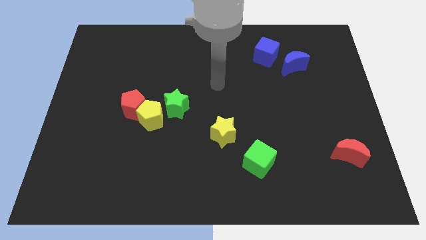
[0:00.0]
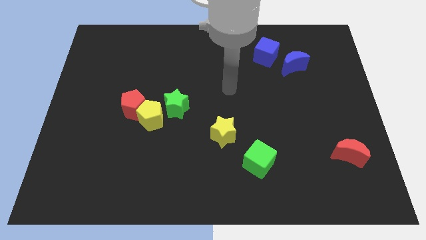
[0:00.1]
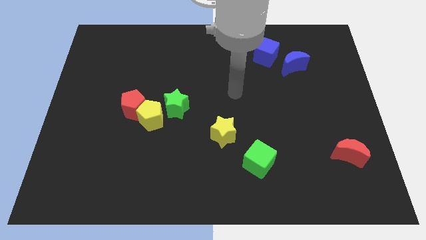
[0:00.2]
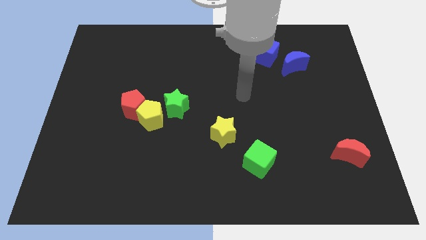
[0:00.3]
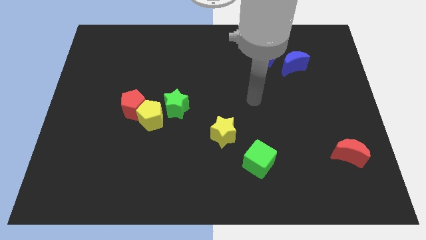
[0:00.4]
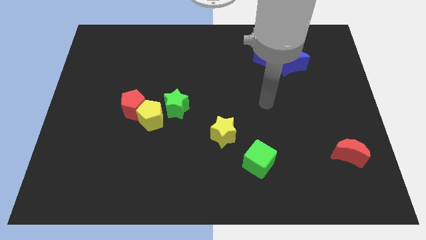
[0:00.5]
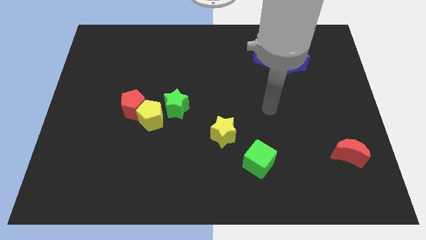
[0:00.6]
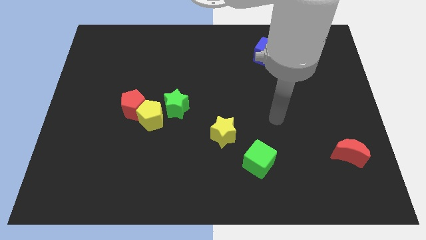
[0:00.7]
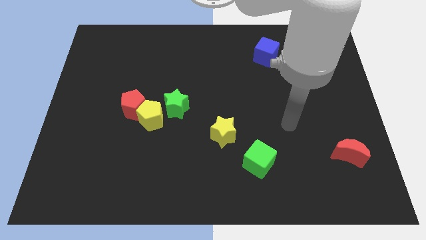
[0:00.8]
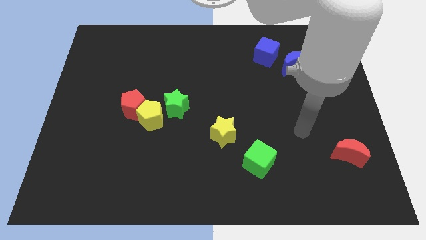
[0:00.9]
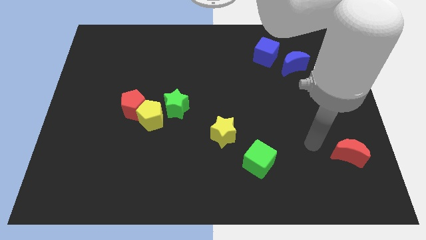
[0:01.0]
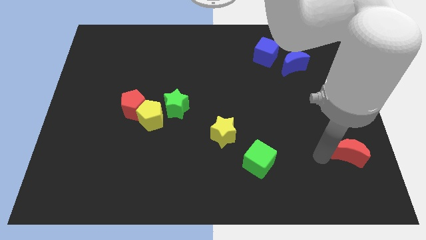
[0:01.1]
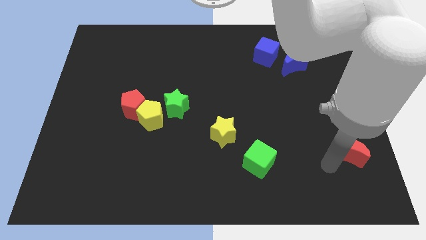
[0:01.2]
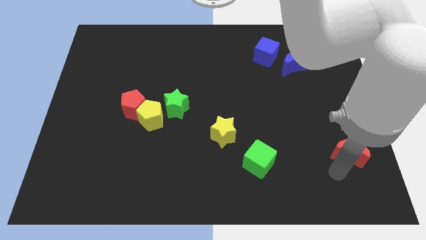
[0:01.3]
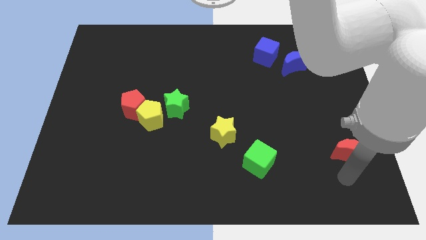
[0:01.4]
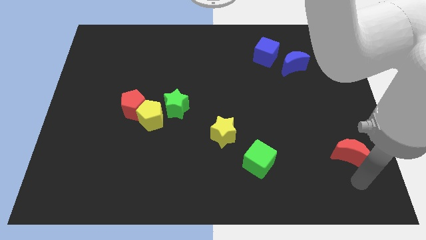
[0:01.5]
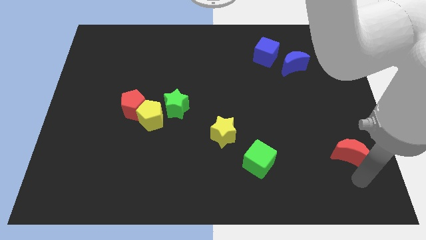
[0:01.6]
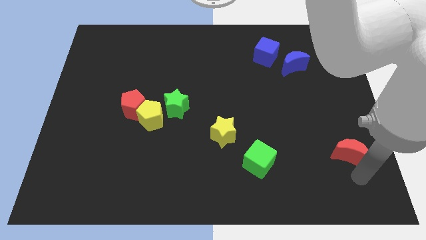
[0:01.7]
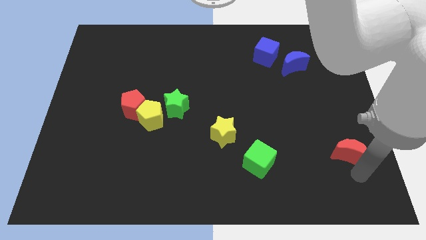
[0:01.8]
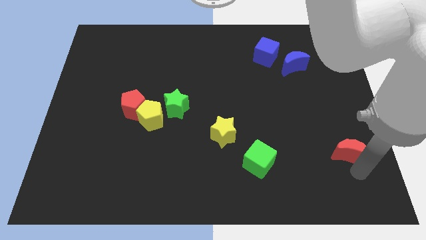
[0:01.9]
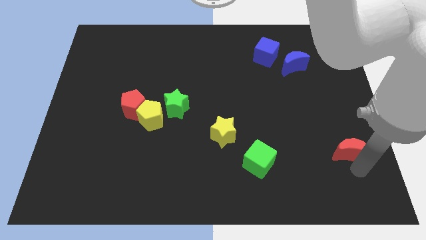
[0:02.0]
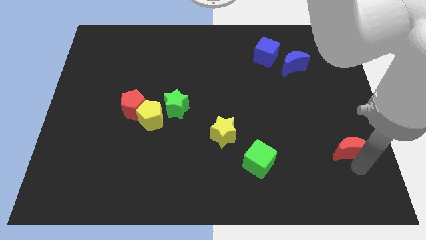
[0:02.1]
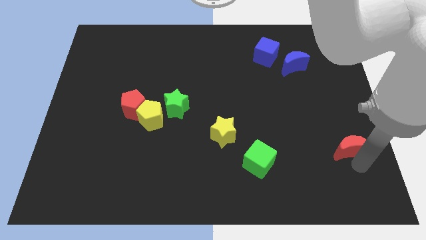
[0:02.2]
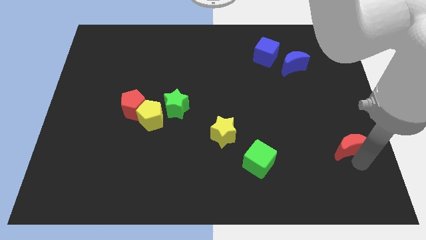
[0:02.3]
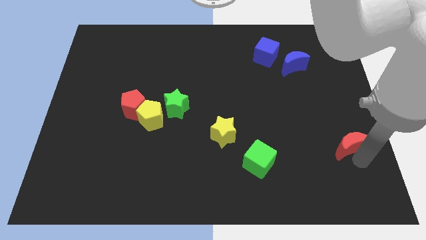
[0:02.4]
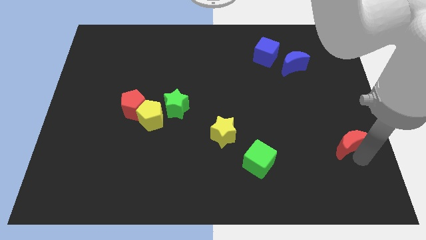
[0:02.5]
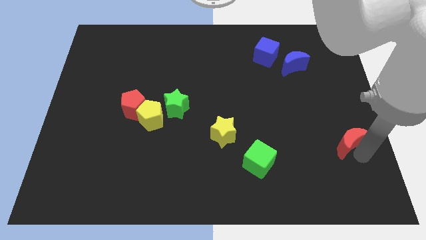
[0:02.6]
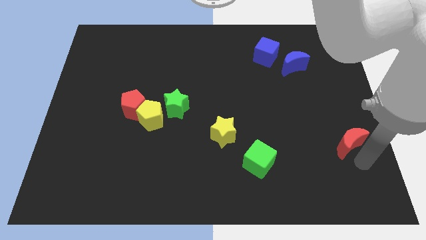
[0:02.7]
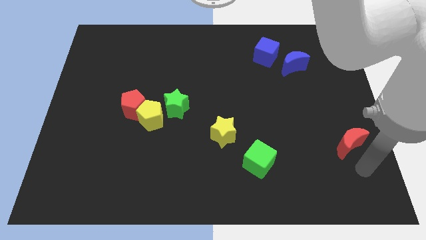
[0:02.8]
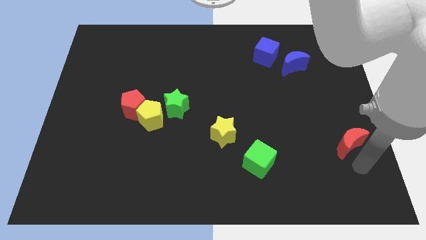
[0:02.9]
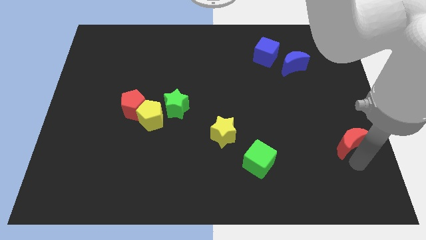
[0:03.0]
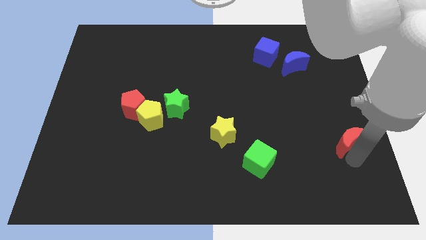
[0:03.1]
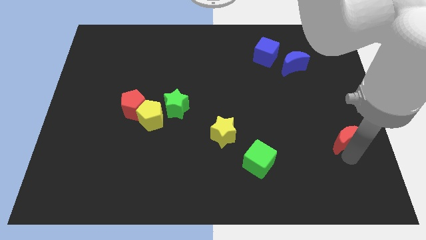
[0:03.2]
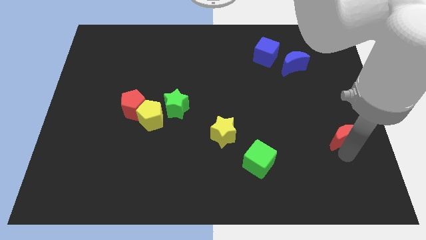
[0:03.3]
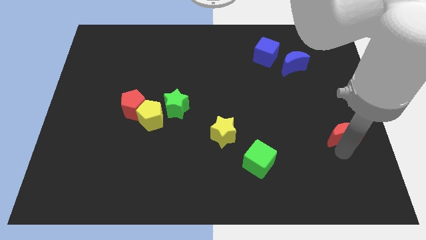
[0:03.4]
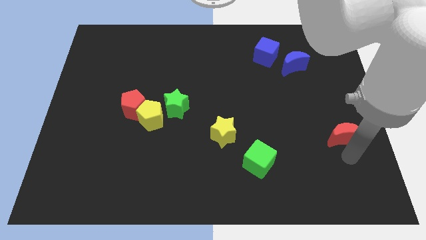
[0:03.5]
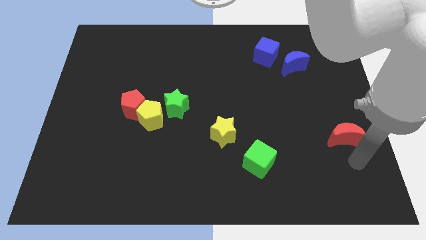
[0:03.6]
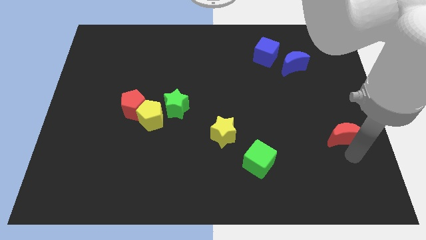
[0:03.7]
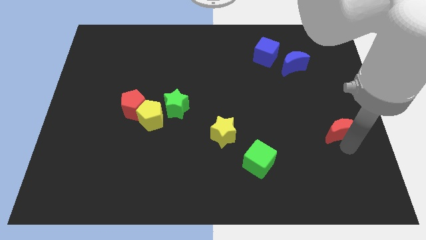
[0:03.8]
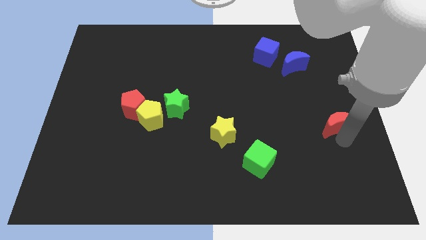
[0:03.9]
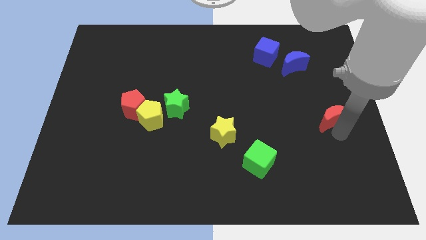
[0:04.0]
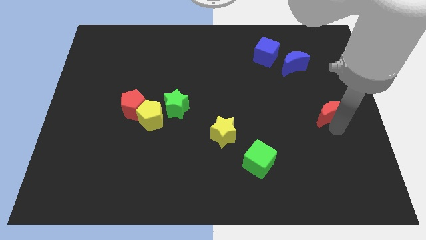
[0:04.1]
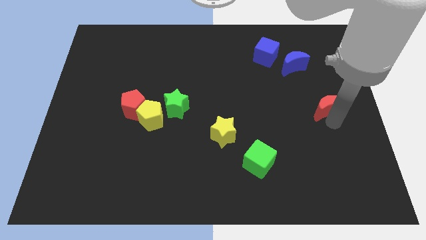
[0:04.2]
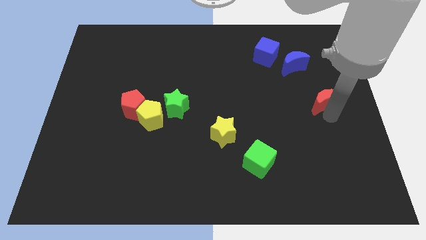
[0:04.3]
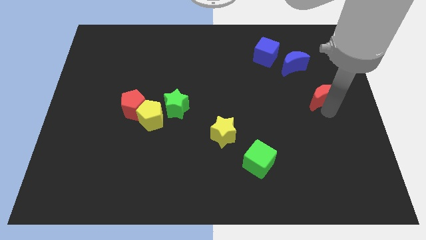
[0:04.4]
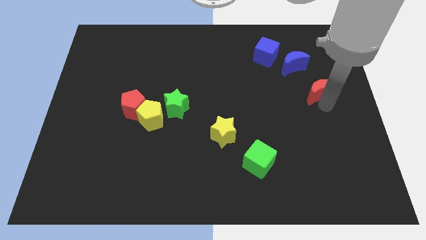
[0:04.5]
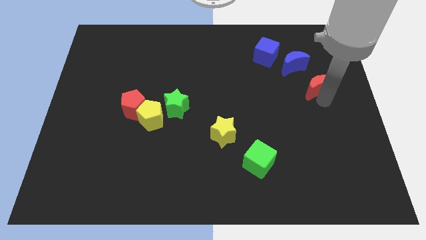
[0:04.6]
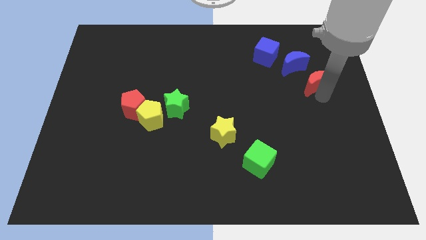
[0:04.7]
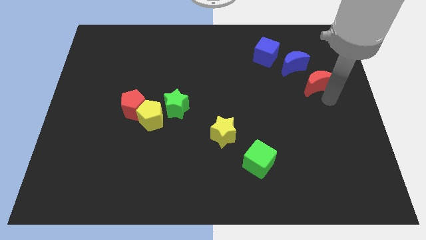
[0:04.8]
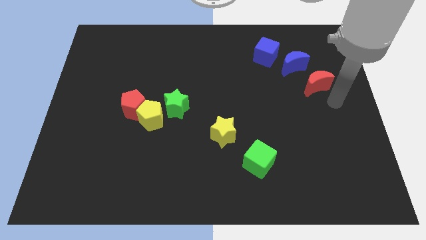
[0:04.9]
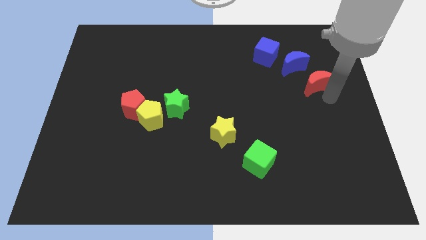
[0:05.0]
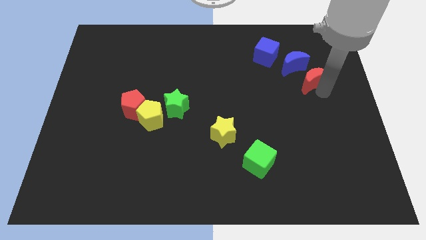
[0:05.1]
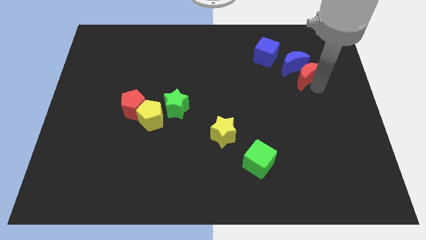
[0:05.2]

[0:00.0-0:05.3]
push the red moon to the blue moon

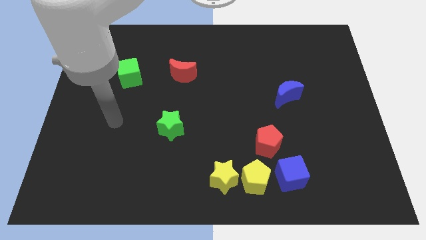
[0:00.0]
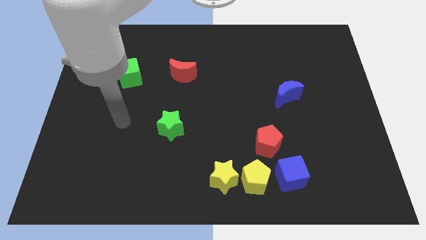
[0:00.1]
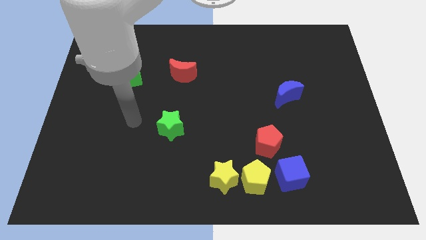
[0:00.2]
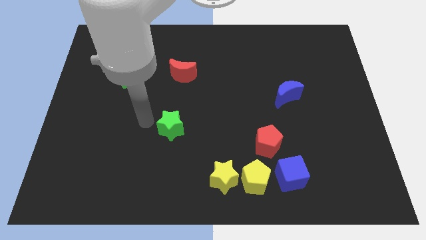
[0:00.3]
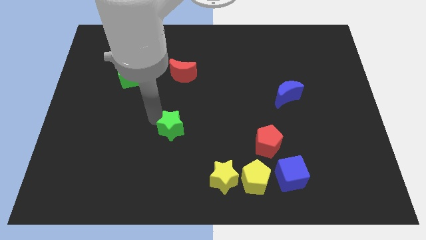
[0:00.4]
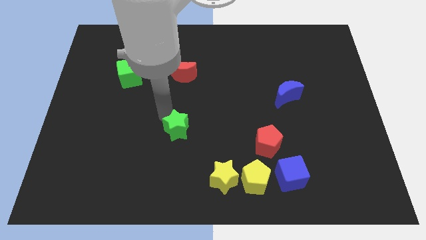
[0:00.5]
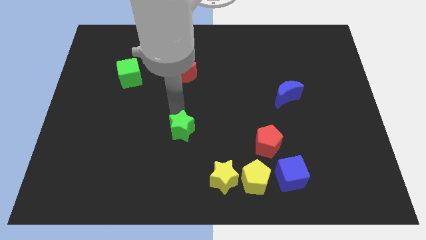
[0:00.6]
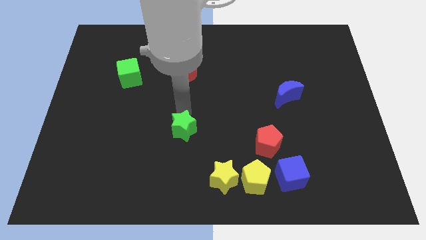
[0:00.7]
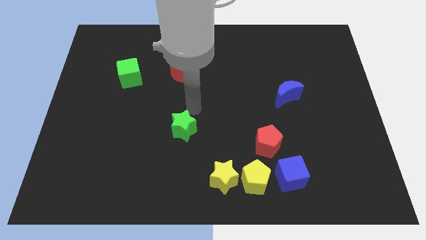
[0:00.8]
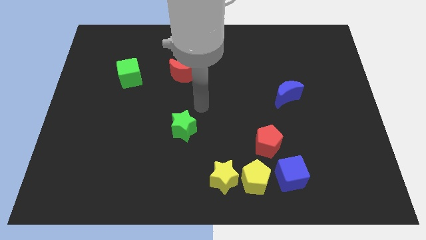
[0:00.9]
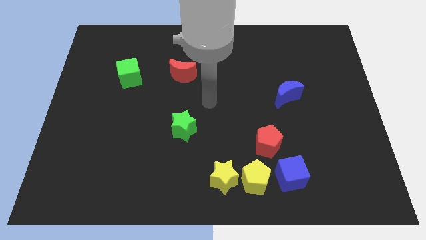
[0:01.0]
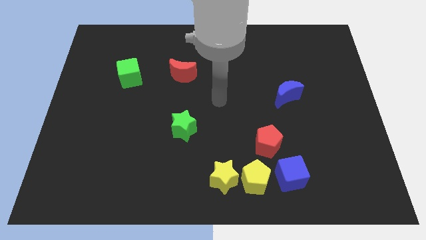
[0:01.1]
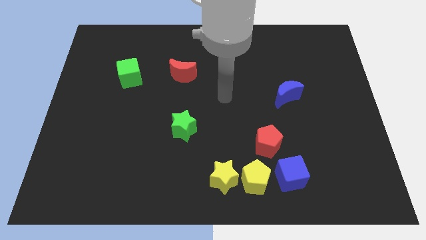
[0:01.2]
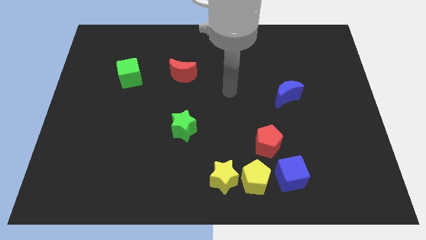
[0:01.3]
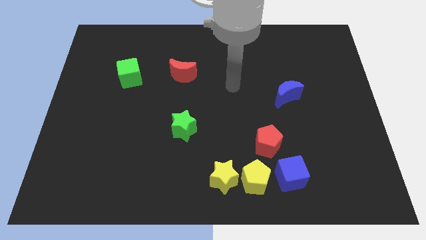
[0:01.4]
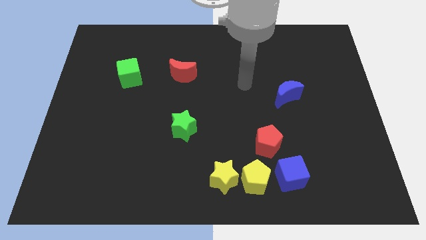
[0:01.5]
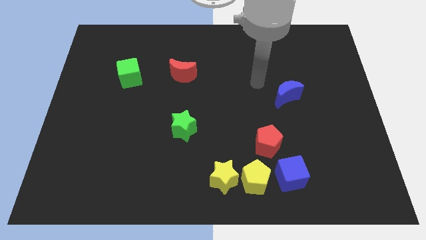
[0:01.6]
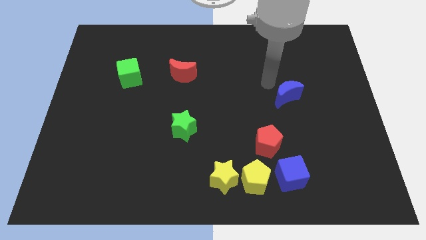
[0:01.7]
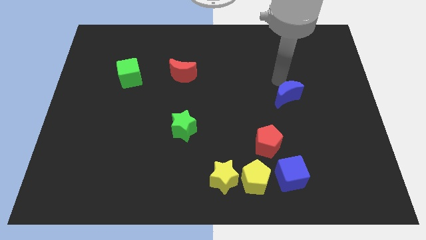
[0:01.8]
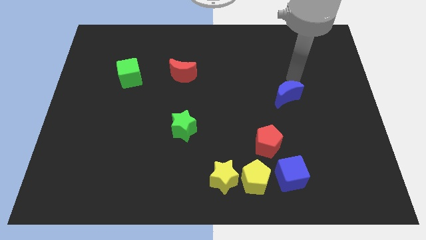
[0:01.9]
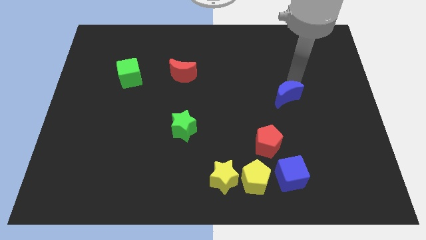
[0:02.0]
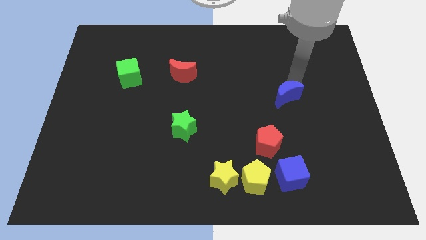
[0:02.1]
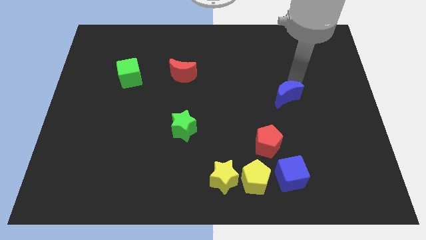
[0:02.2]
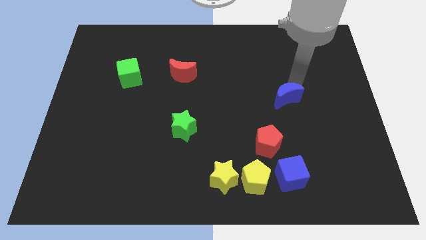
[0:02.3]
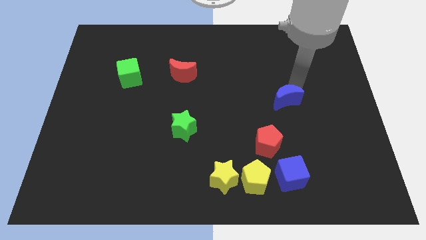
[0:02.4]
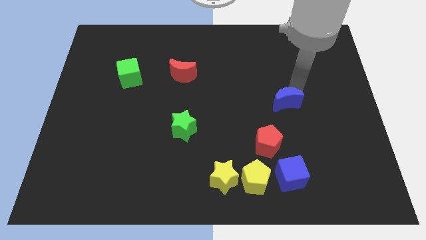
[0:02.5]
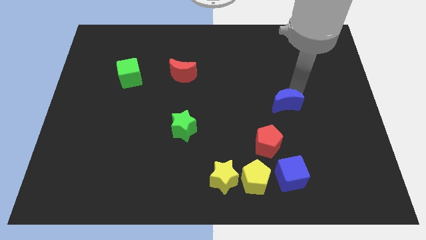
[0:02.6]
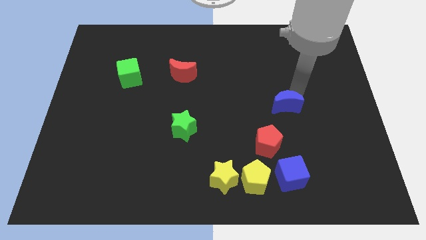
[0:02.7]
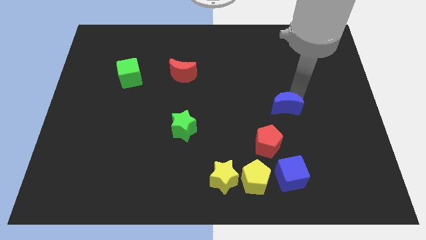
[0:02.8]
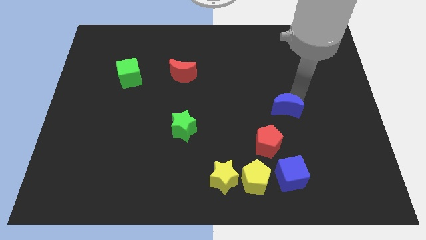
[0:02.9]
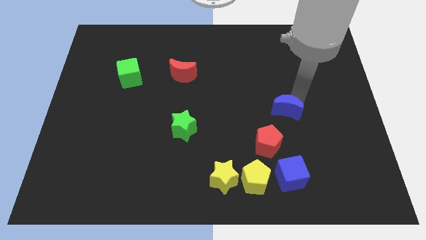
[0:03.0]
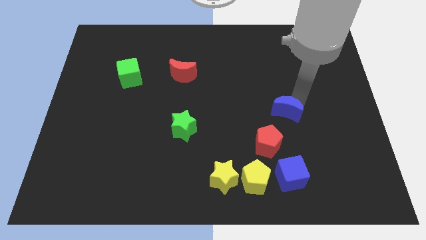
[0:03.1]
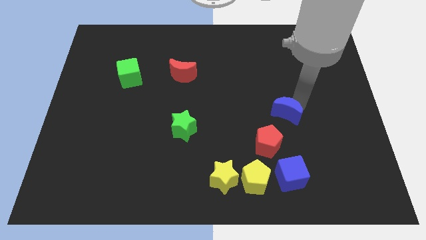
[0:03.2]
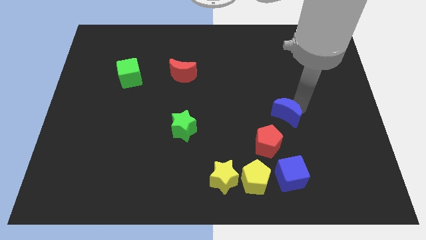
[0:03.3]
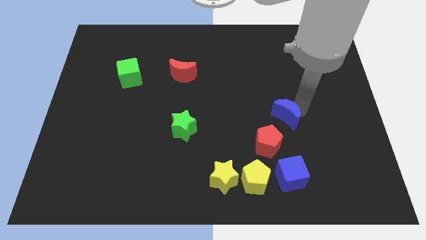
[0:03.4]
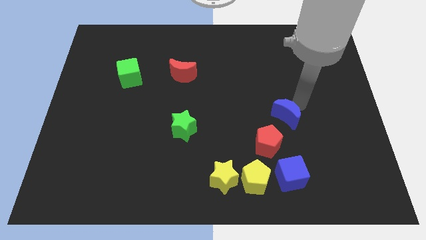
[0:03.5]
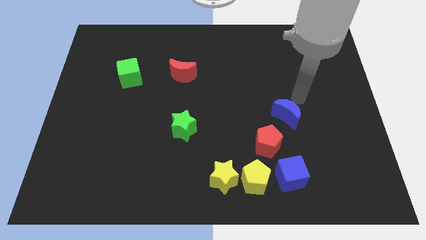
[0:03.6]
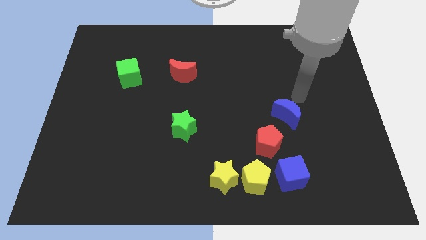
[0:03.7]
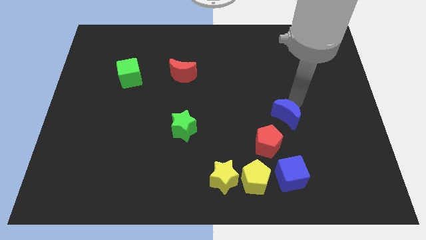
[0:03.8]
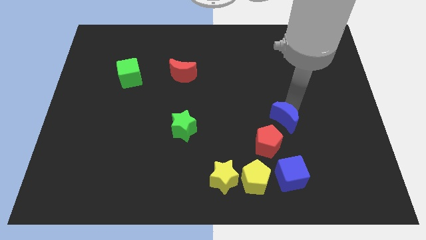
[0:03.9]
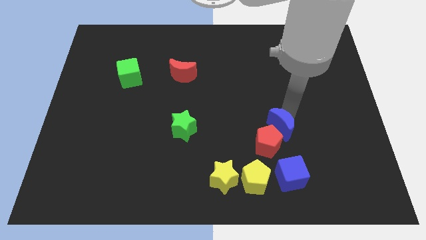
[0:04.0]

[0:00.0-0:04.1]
slide the blue moon close to the red pentagon
